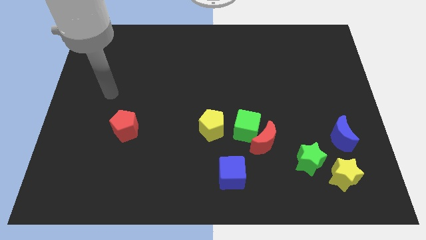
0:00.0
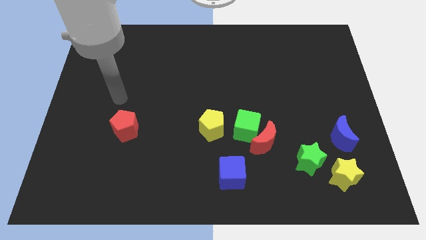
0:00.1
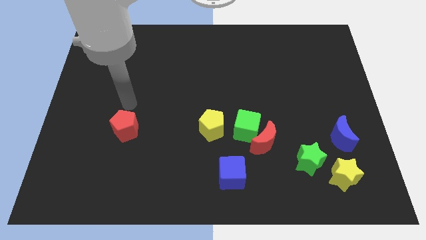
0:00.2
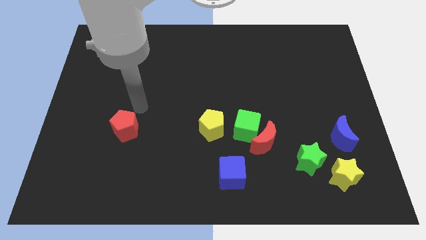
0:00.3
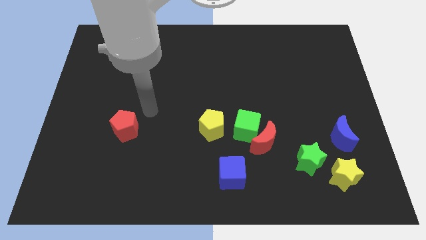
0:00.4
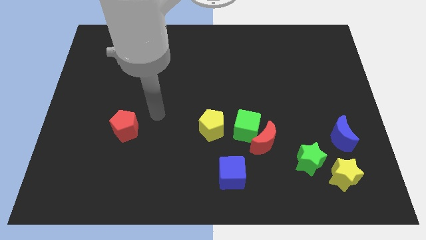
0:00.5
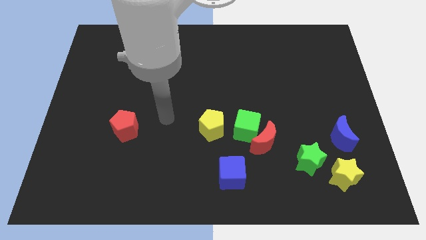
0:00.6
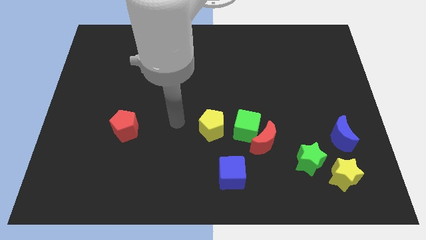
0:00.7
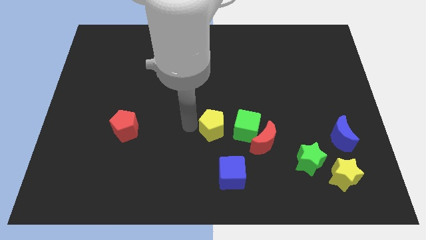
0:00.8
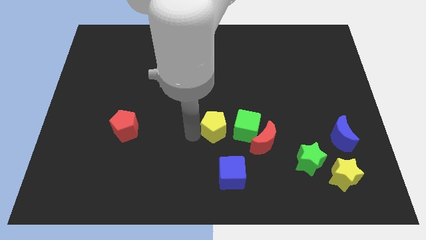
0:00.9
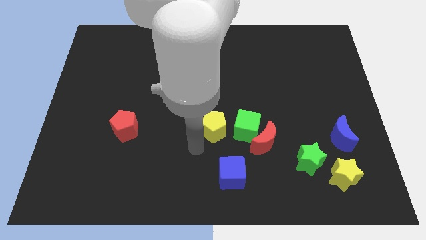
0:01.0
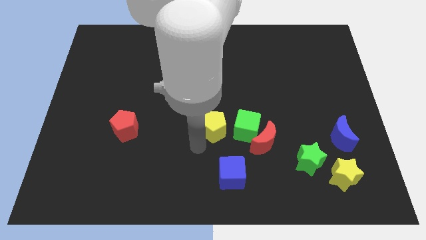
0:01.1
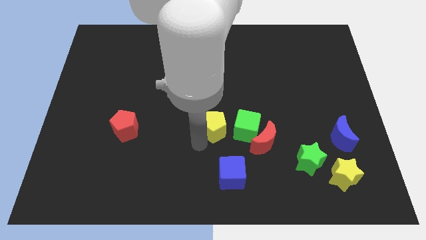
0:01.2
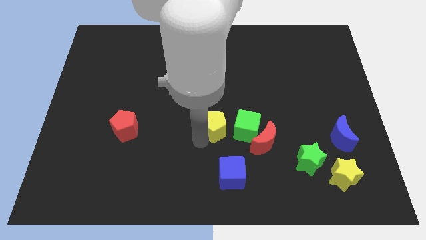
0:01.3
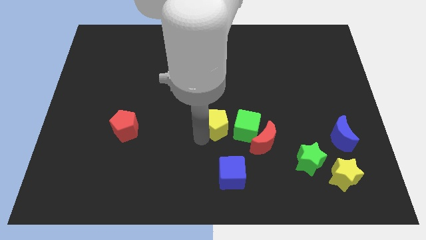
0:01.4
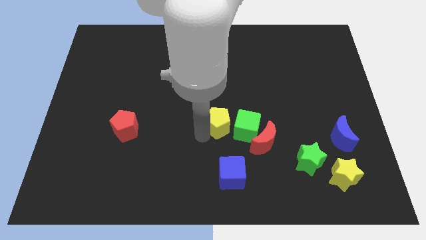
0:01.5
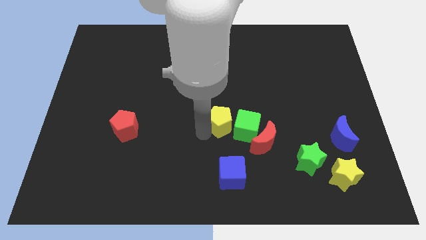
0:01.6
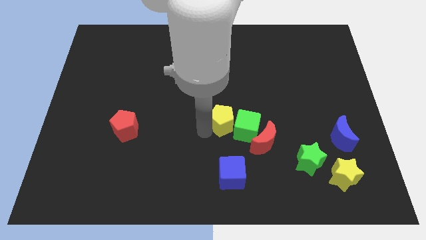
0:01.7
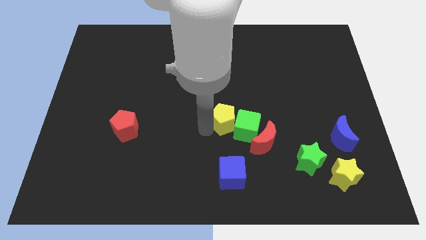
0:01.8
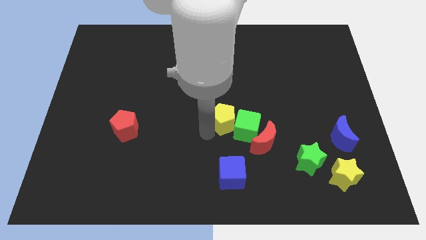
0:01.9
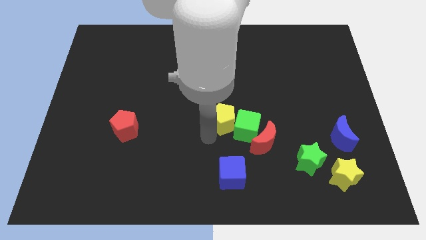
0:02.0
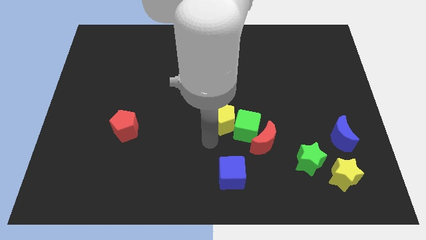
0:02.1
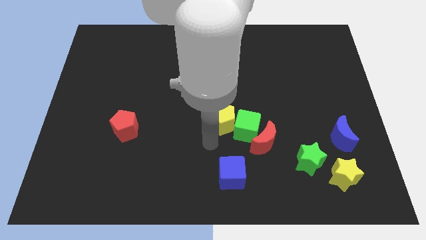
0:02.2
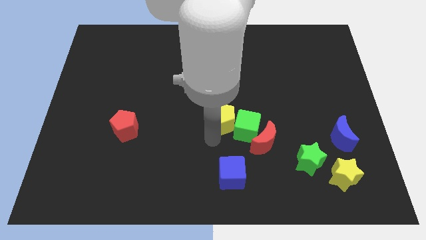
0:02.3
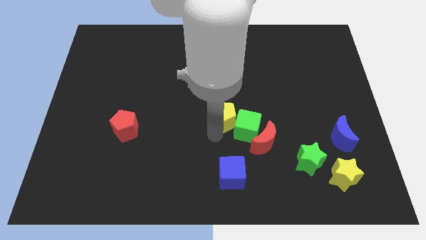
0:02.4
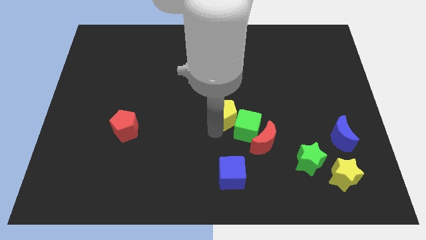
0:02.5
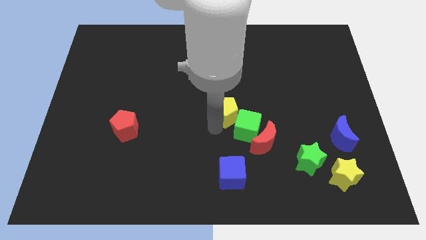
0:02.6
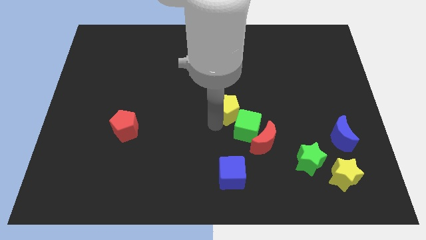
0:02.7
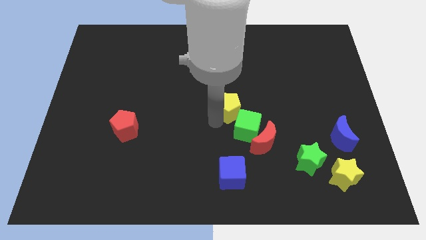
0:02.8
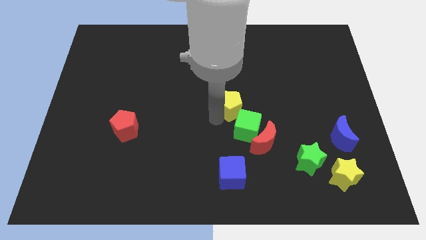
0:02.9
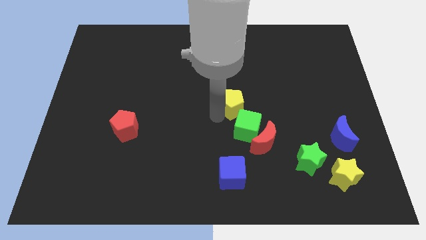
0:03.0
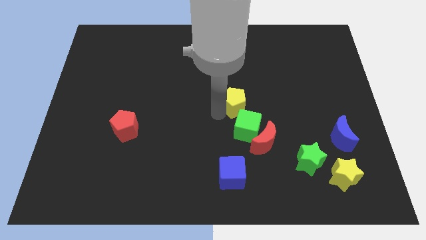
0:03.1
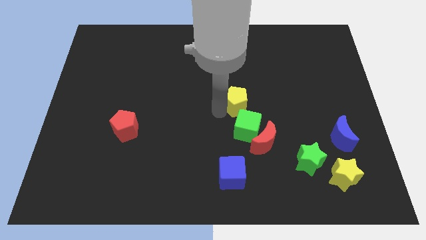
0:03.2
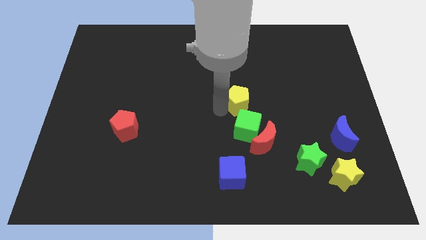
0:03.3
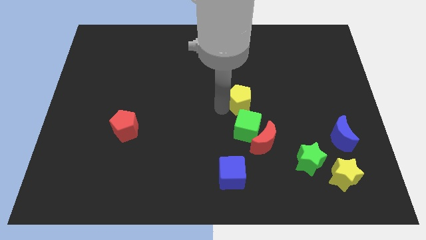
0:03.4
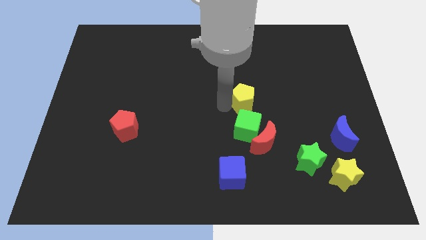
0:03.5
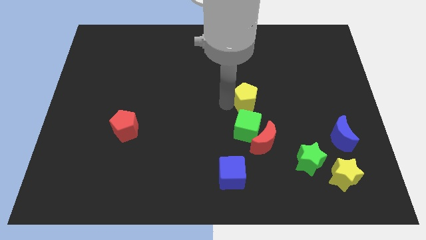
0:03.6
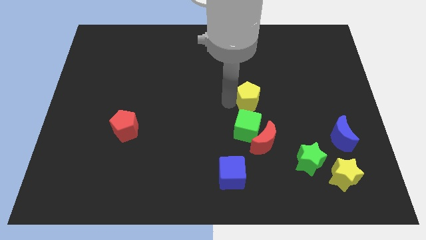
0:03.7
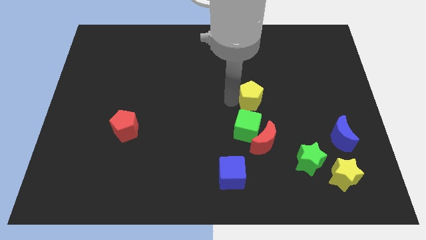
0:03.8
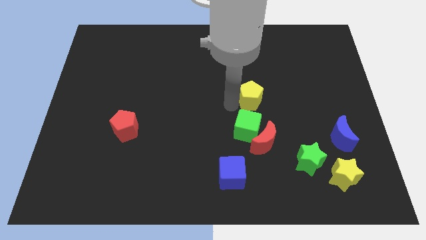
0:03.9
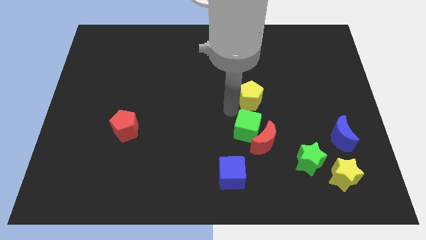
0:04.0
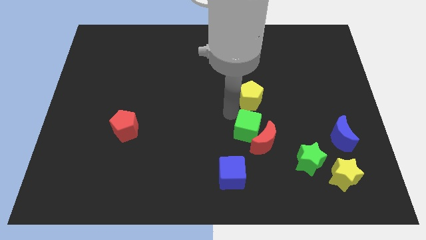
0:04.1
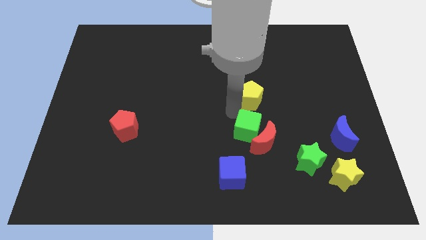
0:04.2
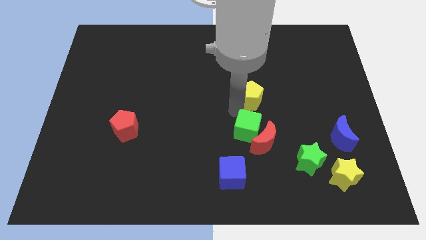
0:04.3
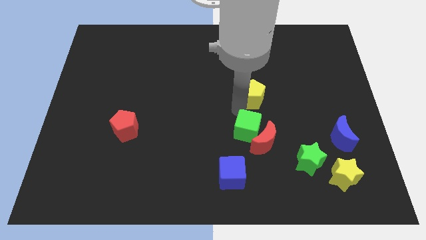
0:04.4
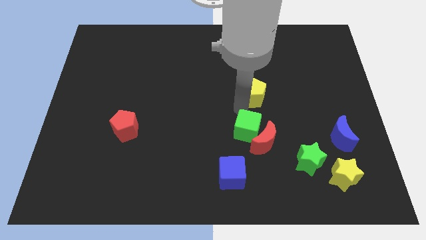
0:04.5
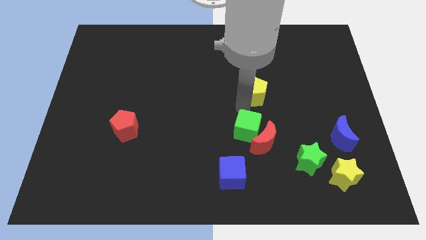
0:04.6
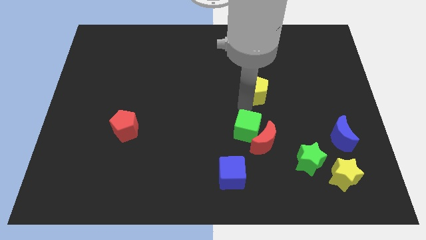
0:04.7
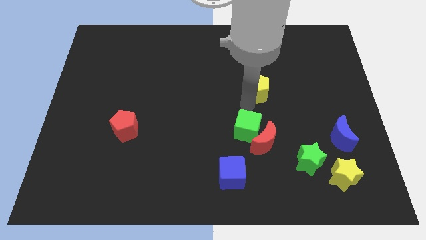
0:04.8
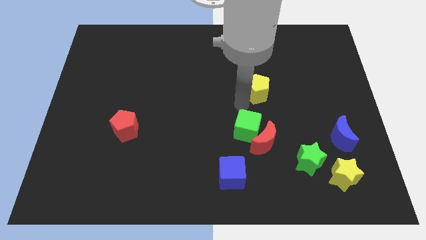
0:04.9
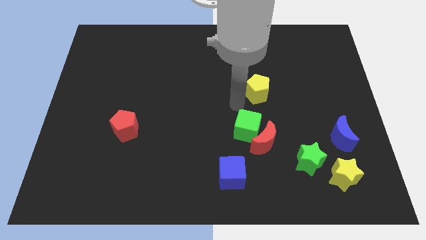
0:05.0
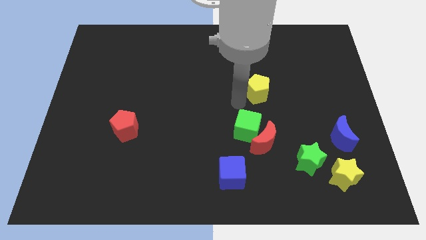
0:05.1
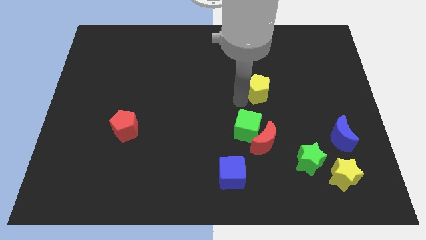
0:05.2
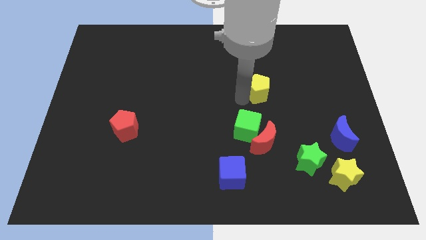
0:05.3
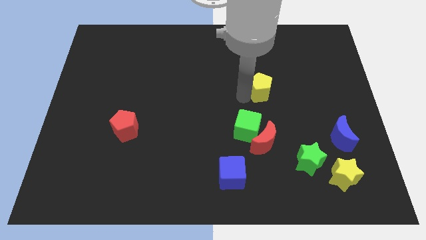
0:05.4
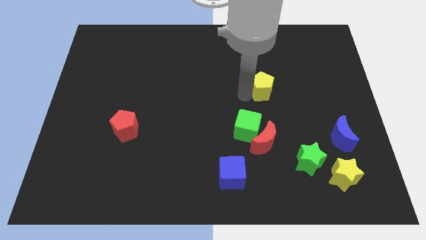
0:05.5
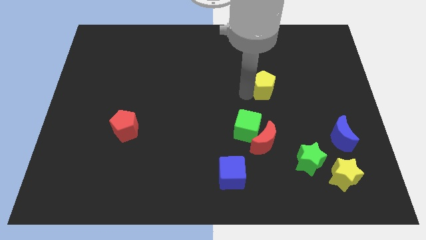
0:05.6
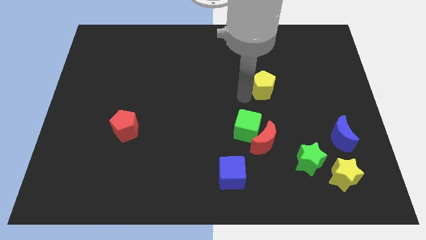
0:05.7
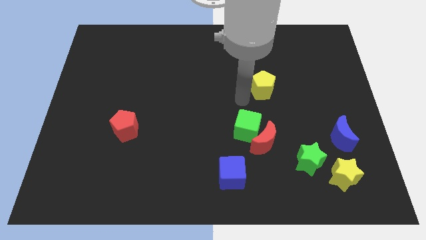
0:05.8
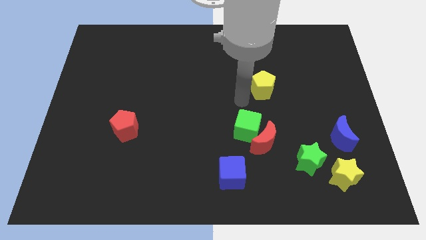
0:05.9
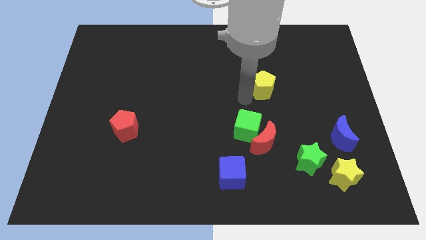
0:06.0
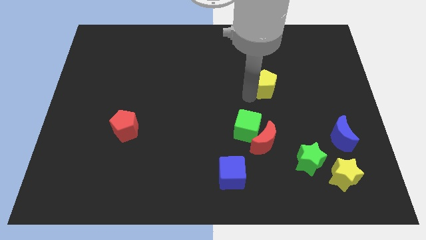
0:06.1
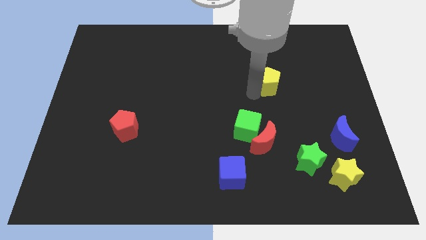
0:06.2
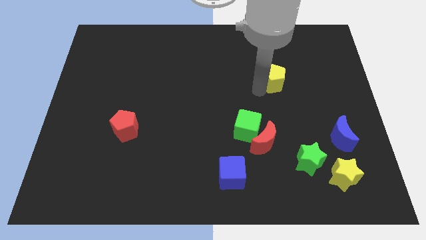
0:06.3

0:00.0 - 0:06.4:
push the yellow pentagon upwards and right

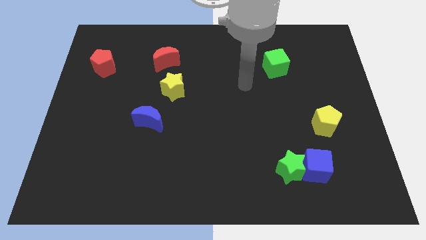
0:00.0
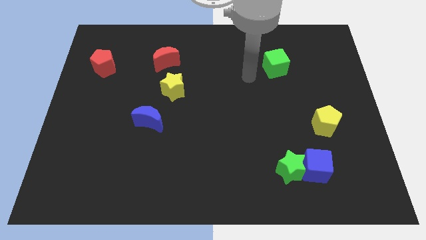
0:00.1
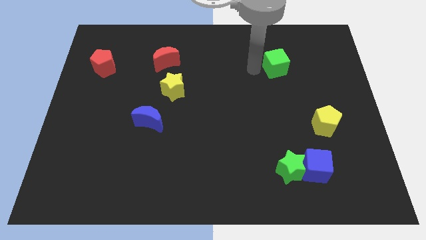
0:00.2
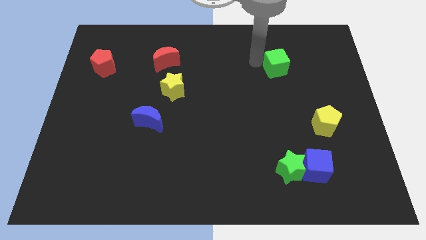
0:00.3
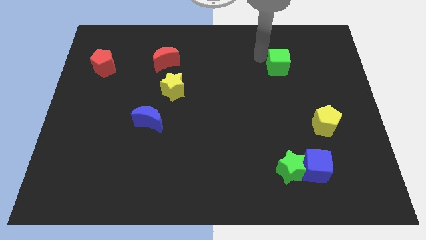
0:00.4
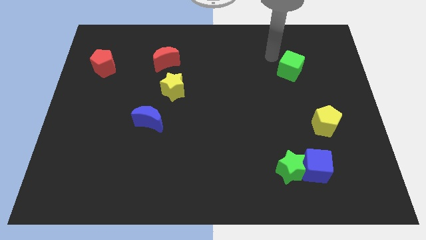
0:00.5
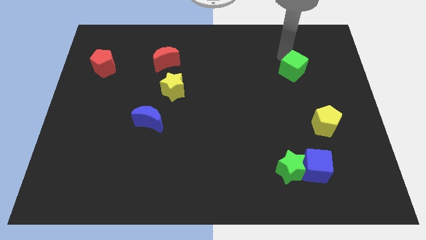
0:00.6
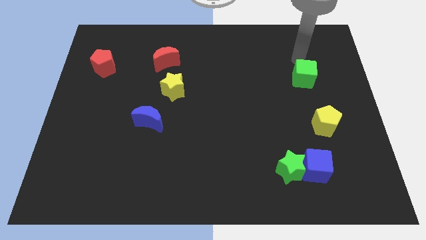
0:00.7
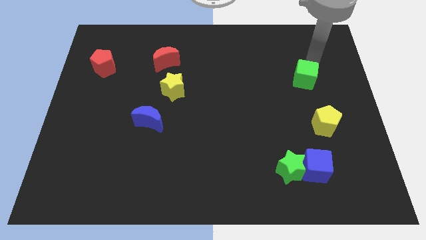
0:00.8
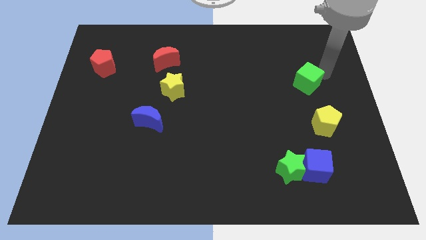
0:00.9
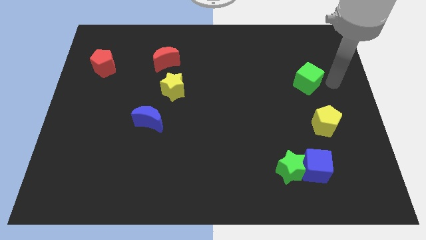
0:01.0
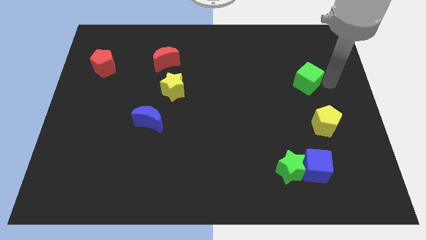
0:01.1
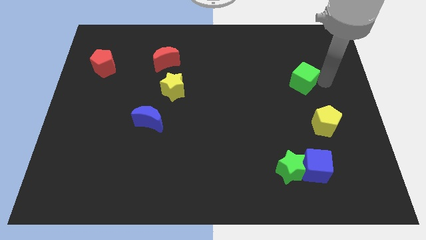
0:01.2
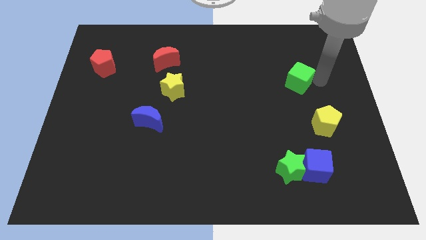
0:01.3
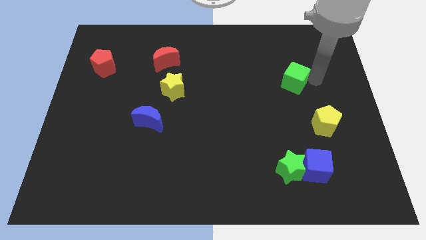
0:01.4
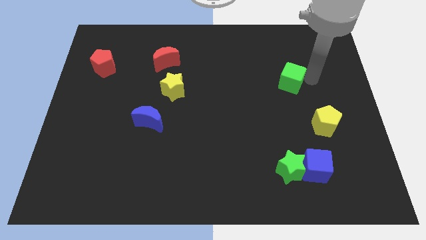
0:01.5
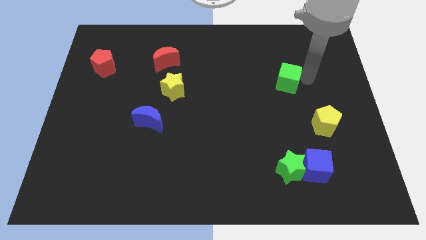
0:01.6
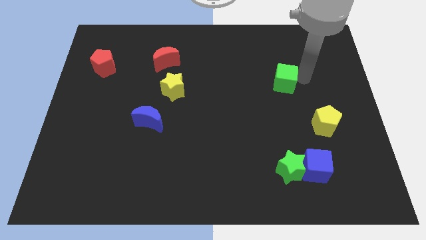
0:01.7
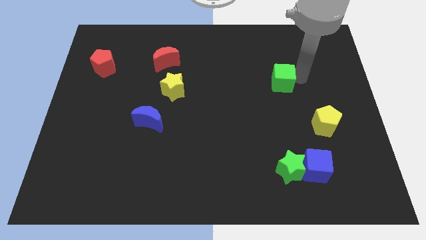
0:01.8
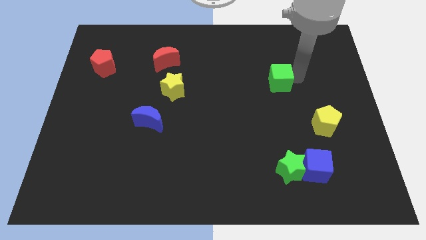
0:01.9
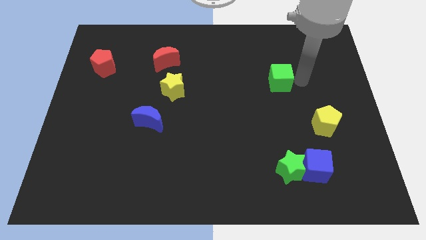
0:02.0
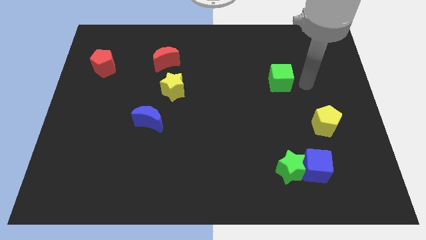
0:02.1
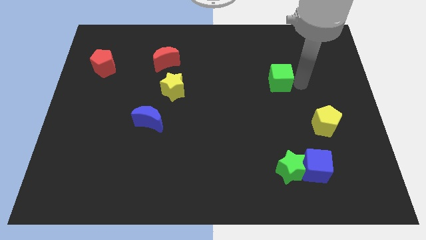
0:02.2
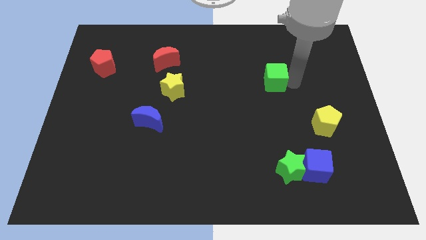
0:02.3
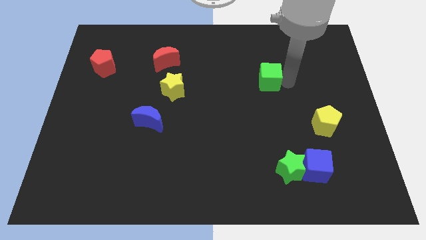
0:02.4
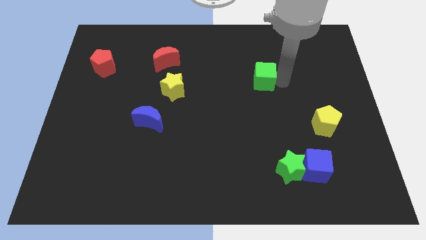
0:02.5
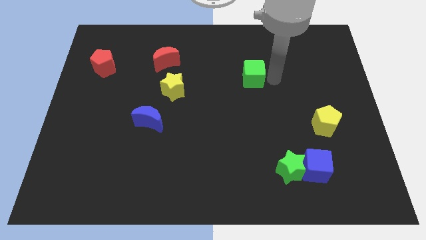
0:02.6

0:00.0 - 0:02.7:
move the green cube a little bit down and then left
